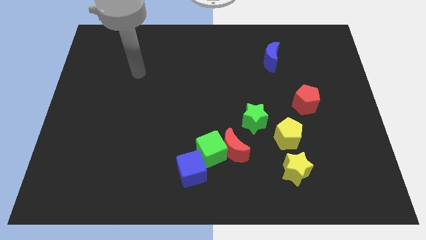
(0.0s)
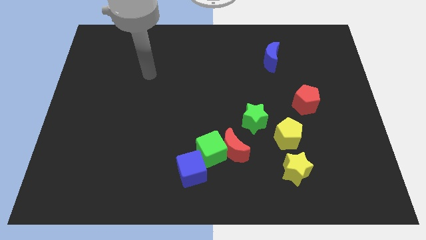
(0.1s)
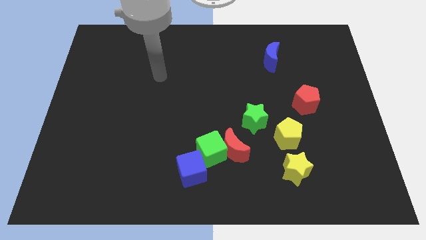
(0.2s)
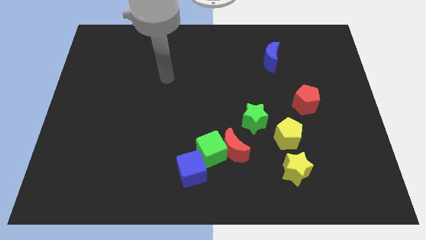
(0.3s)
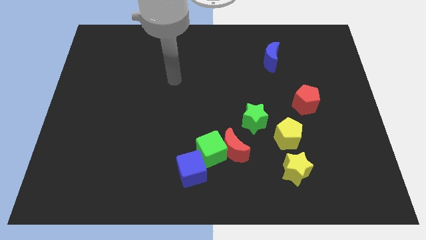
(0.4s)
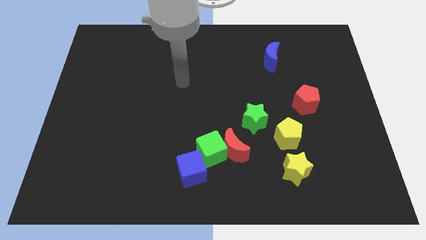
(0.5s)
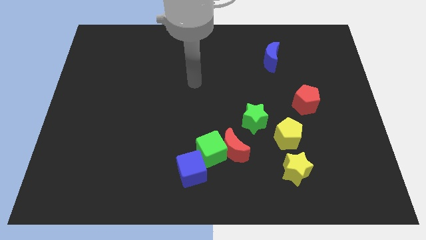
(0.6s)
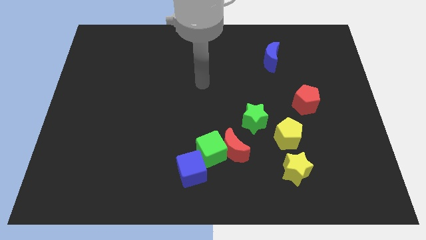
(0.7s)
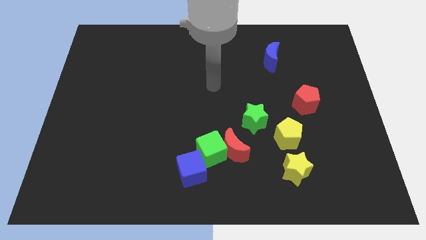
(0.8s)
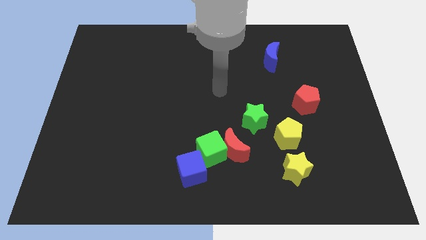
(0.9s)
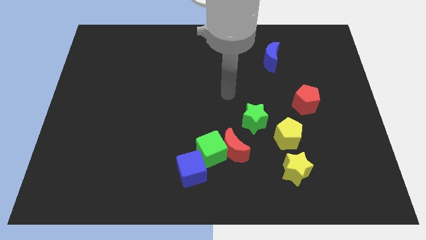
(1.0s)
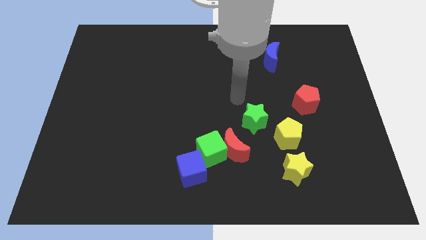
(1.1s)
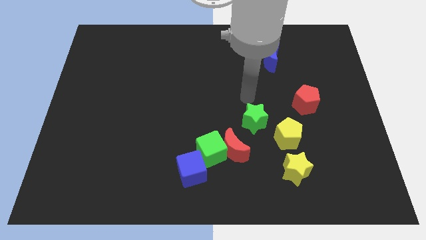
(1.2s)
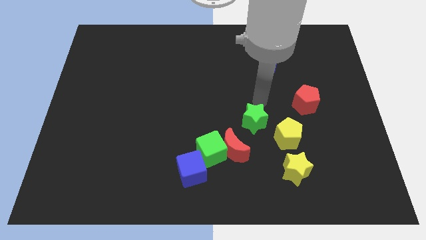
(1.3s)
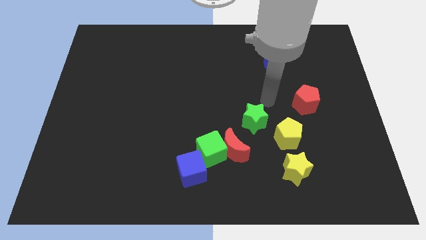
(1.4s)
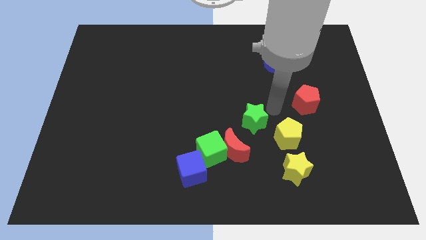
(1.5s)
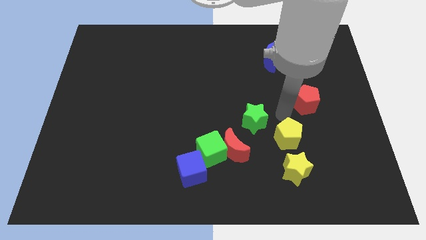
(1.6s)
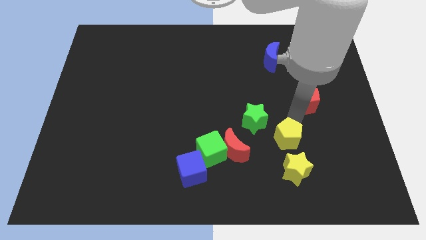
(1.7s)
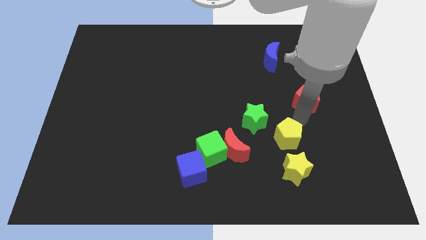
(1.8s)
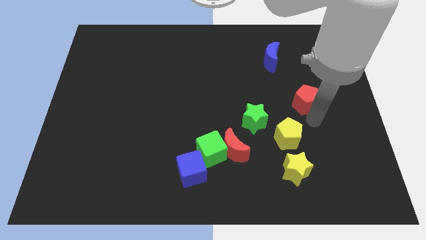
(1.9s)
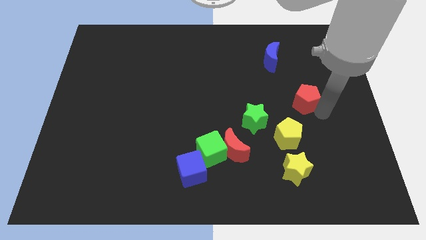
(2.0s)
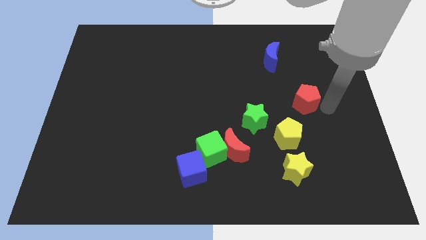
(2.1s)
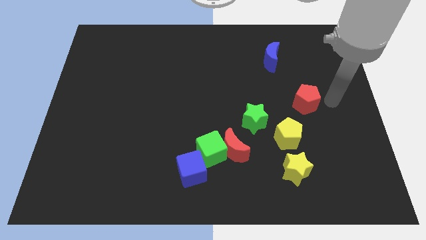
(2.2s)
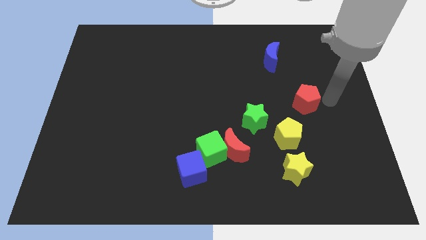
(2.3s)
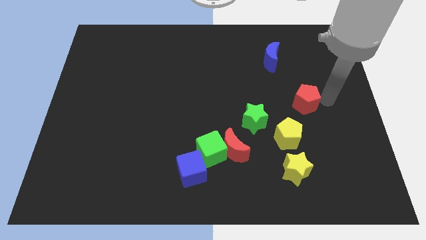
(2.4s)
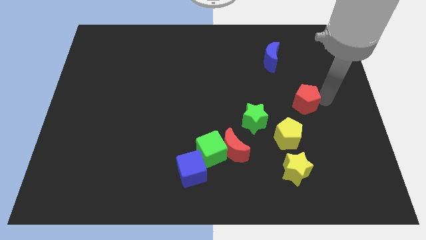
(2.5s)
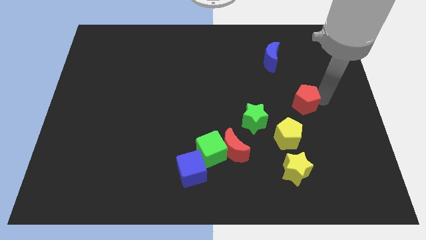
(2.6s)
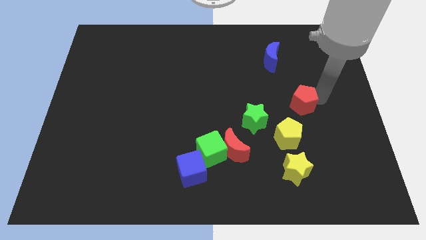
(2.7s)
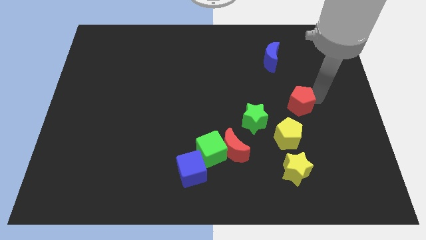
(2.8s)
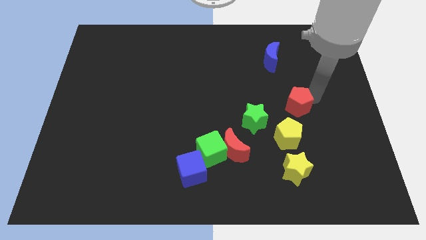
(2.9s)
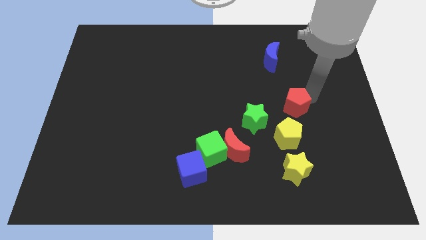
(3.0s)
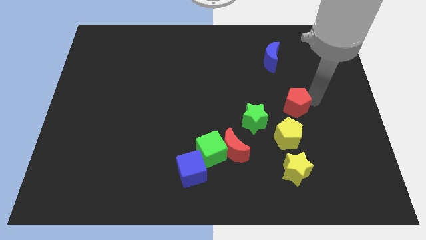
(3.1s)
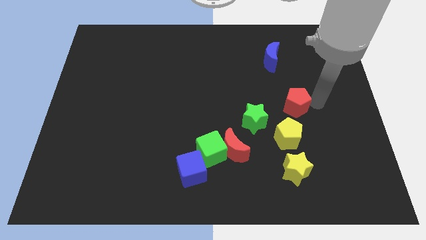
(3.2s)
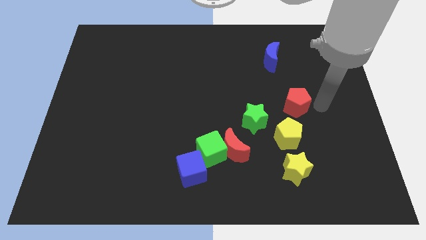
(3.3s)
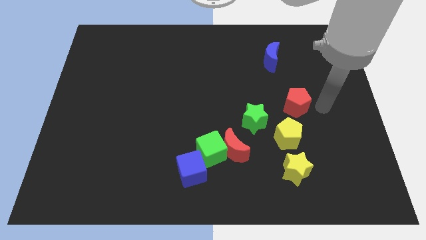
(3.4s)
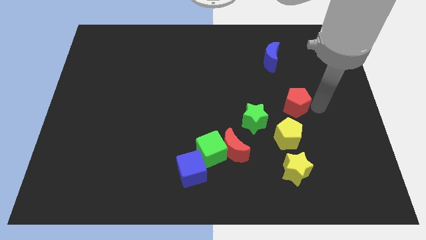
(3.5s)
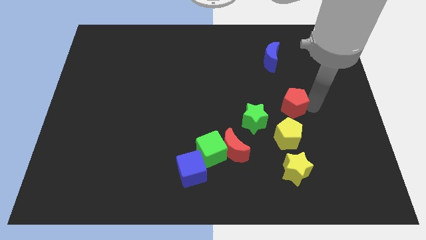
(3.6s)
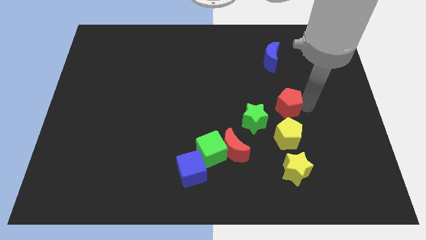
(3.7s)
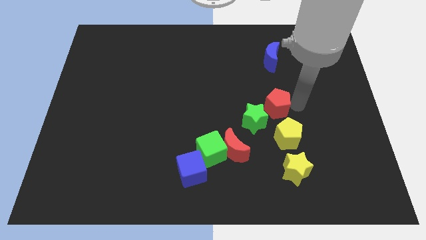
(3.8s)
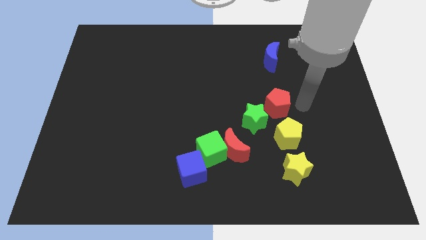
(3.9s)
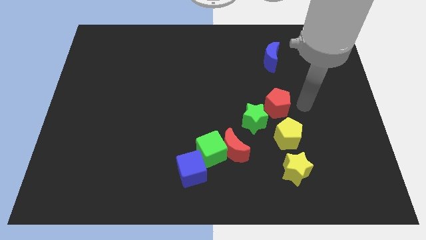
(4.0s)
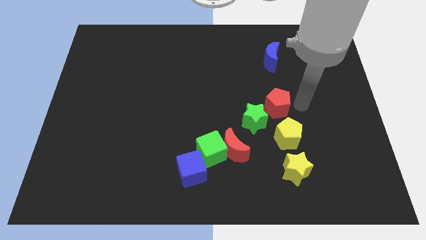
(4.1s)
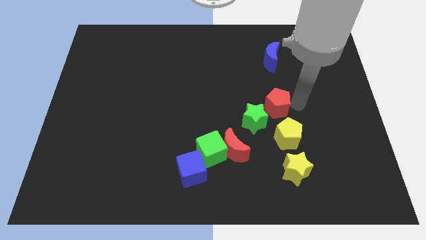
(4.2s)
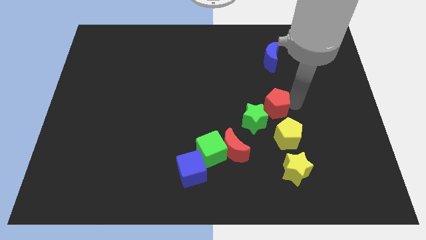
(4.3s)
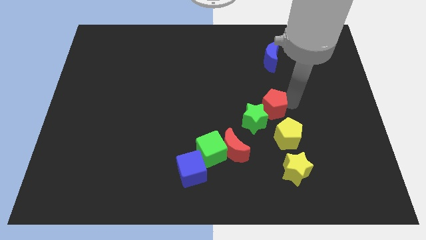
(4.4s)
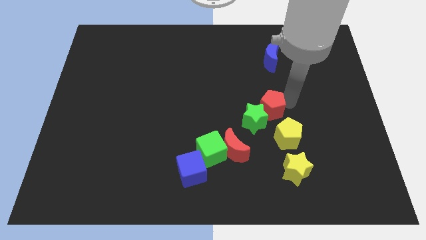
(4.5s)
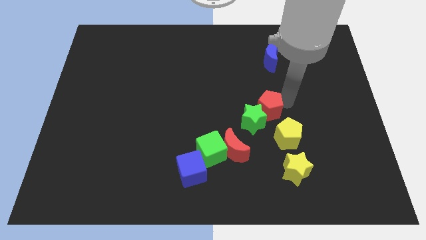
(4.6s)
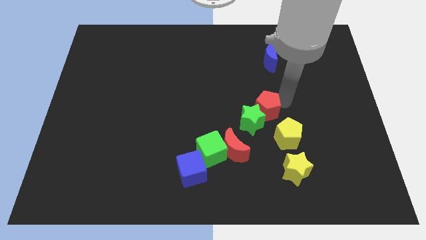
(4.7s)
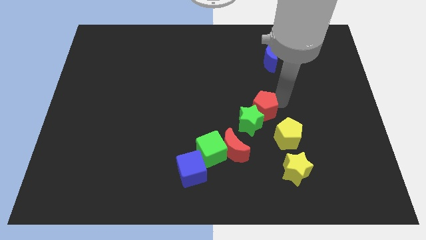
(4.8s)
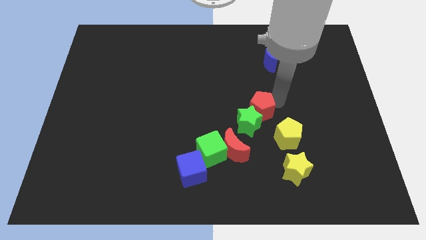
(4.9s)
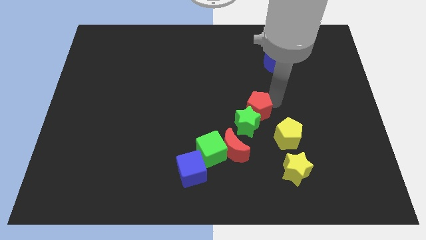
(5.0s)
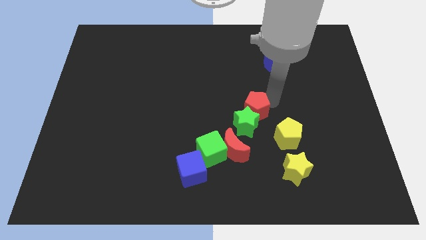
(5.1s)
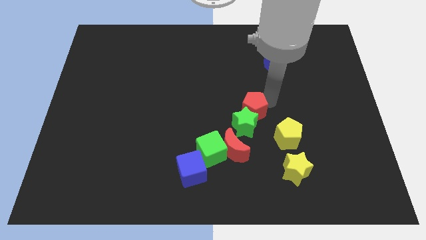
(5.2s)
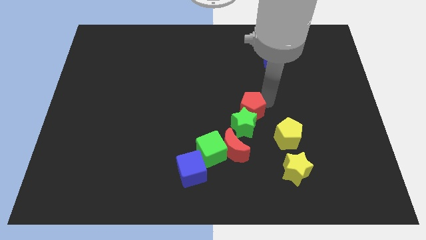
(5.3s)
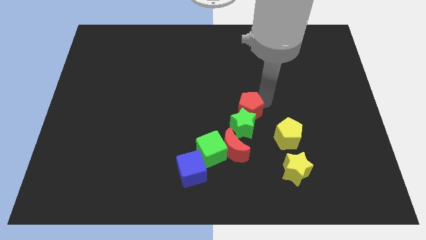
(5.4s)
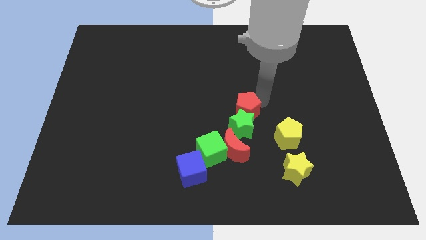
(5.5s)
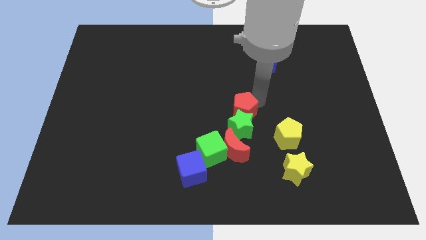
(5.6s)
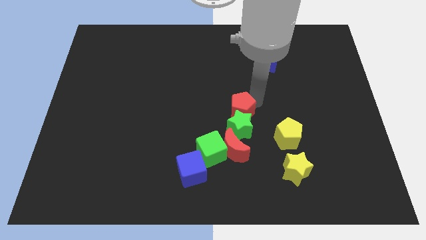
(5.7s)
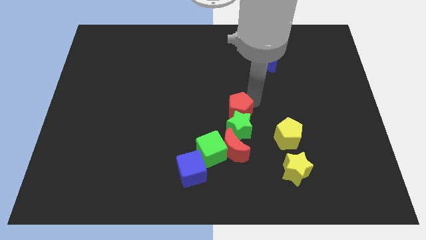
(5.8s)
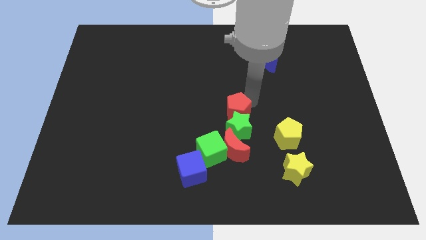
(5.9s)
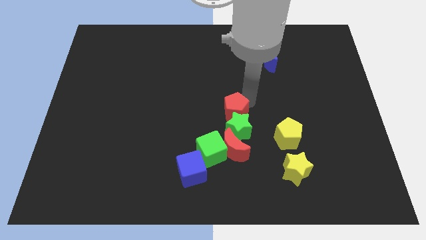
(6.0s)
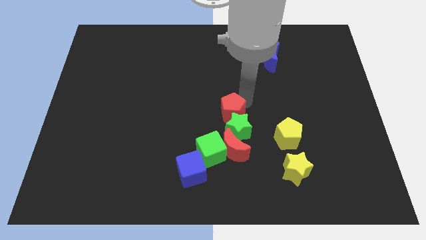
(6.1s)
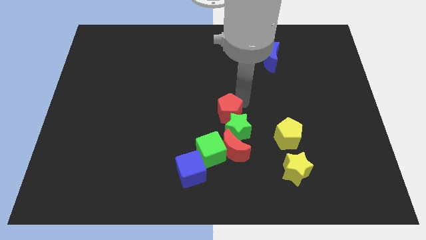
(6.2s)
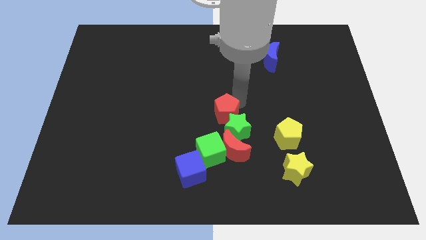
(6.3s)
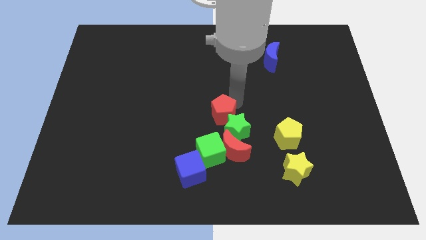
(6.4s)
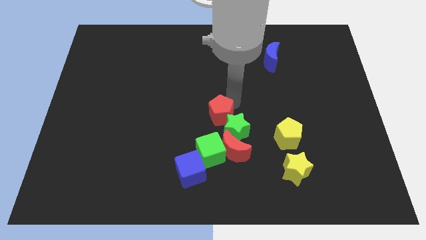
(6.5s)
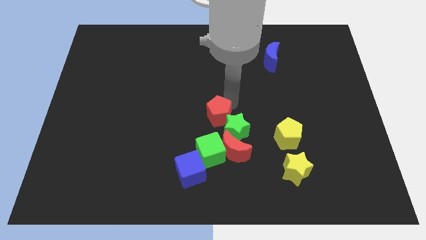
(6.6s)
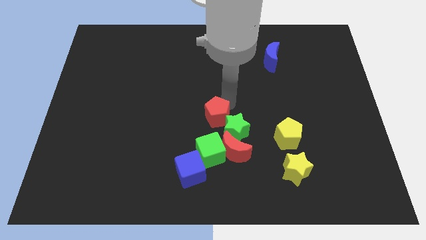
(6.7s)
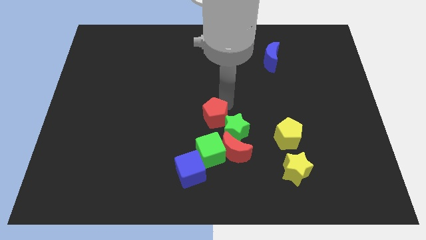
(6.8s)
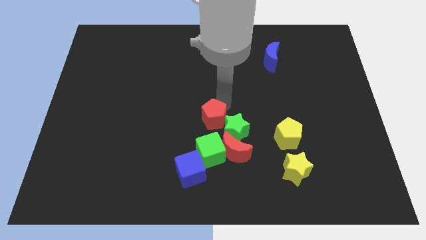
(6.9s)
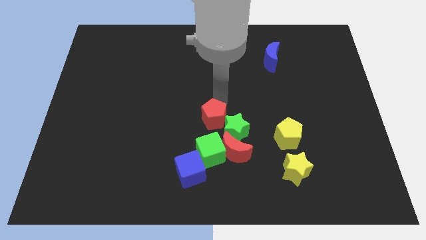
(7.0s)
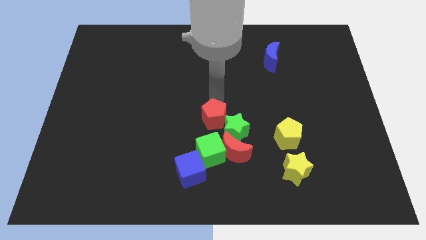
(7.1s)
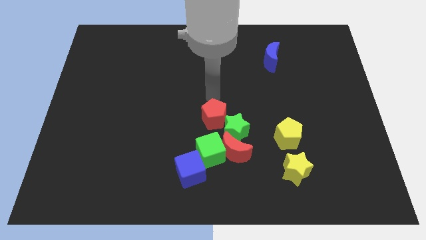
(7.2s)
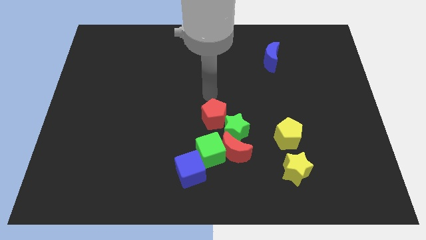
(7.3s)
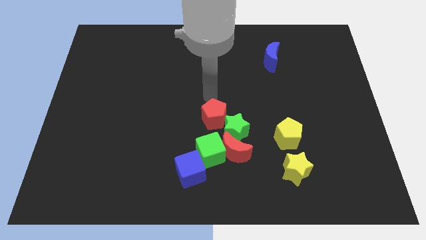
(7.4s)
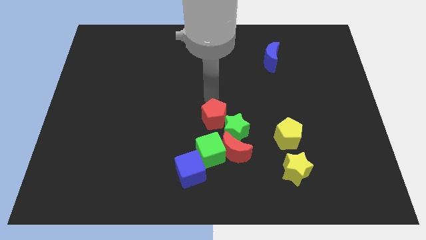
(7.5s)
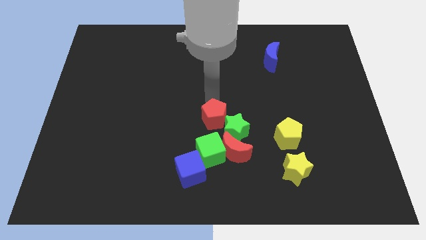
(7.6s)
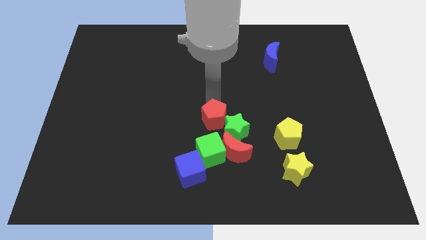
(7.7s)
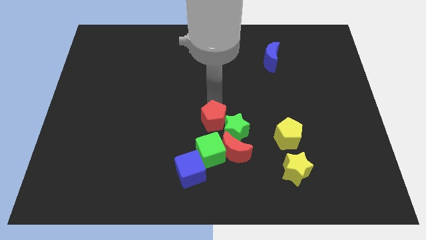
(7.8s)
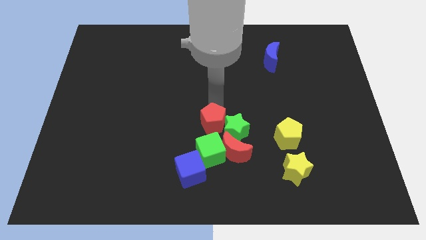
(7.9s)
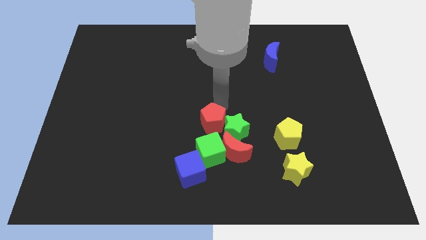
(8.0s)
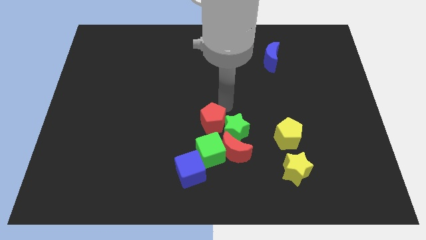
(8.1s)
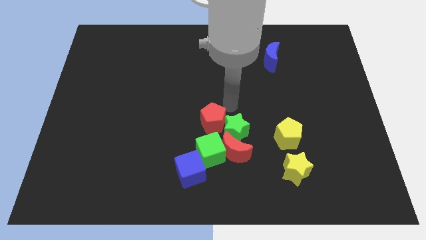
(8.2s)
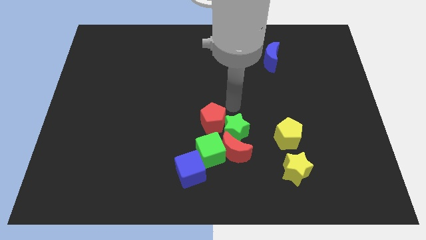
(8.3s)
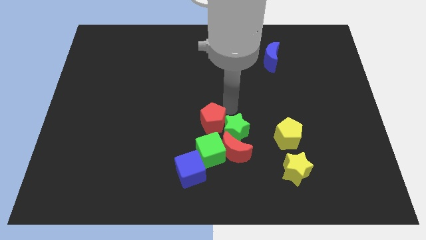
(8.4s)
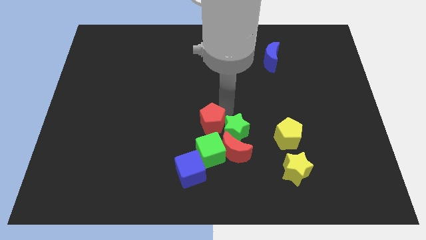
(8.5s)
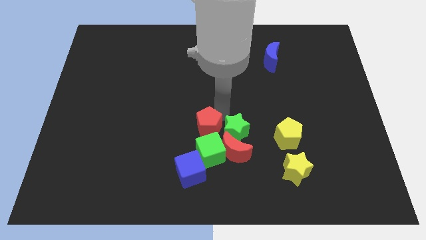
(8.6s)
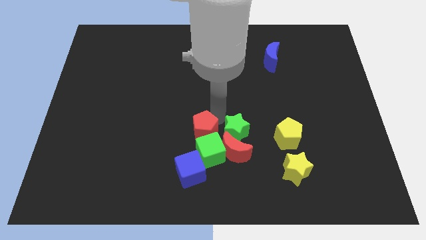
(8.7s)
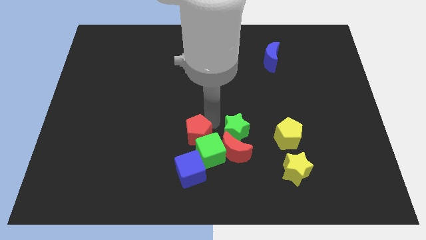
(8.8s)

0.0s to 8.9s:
move the red pentagon to the left of the red moon
